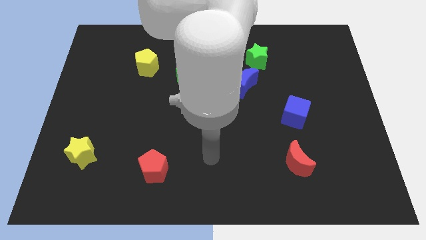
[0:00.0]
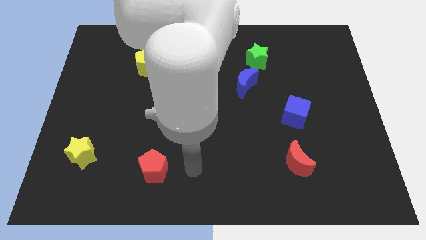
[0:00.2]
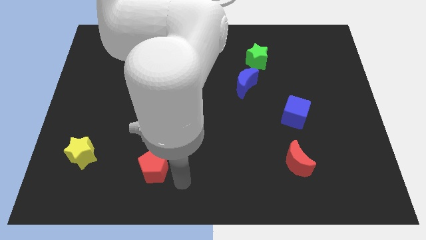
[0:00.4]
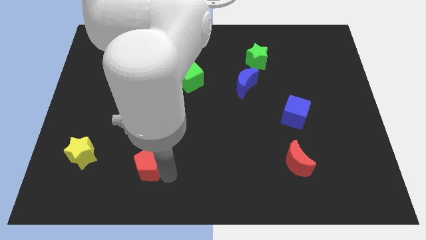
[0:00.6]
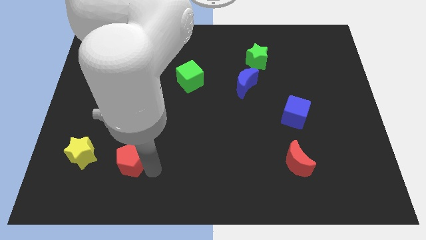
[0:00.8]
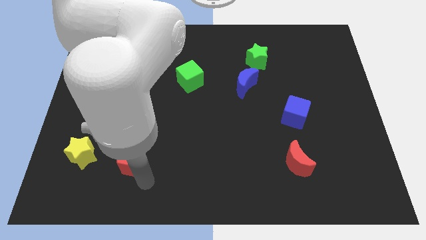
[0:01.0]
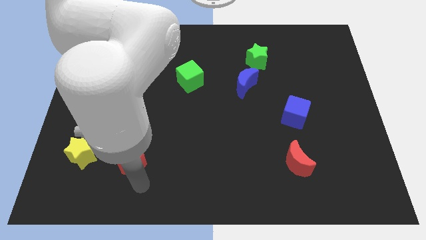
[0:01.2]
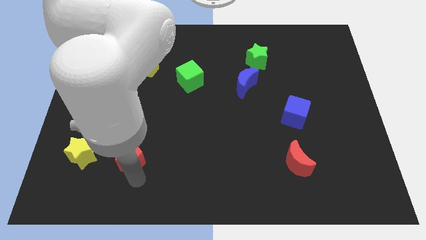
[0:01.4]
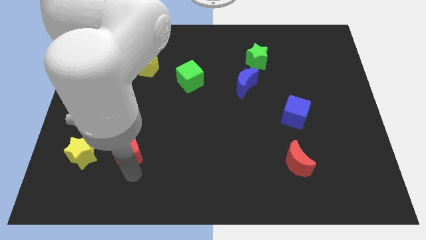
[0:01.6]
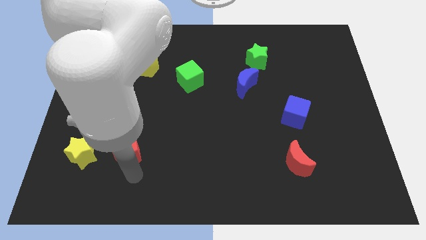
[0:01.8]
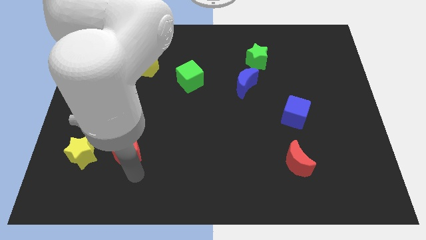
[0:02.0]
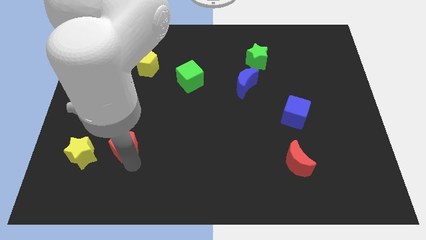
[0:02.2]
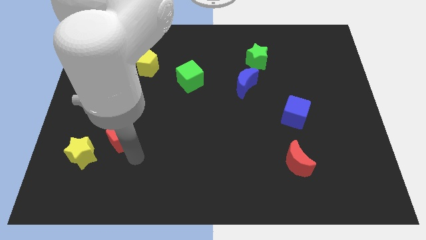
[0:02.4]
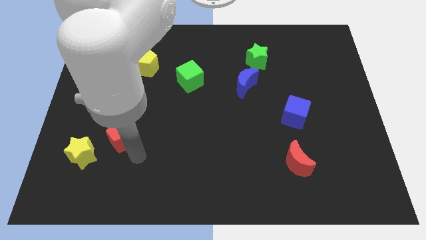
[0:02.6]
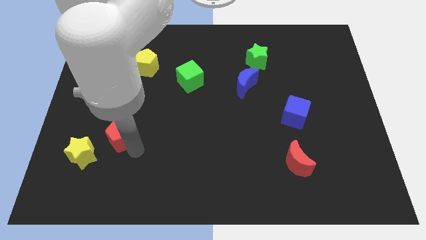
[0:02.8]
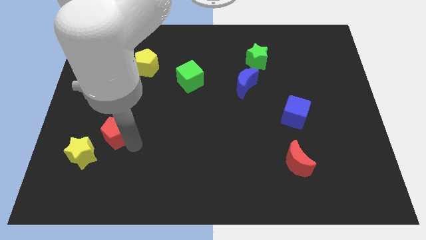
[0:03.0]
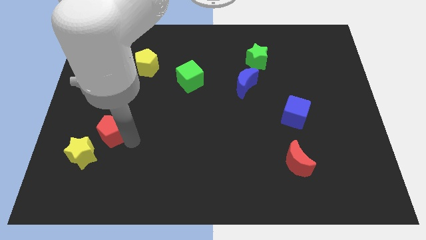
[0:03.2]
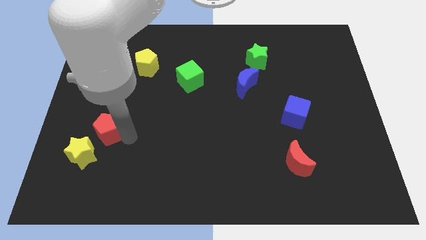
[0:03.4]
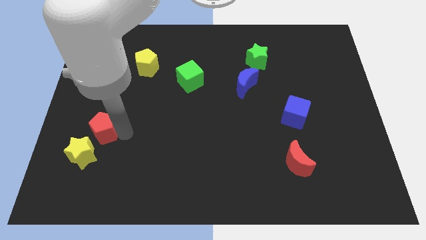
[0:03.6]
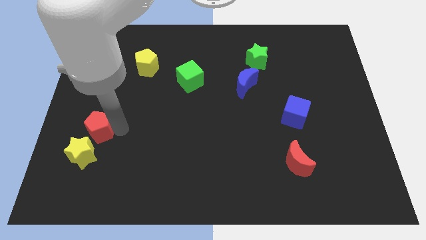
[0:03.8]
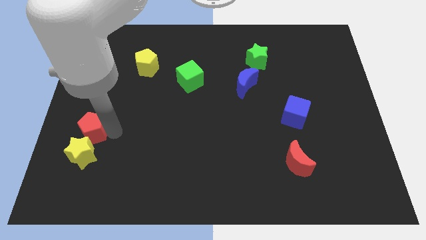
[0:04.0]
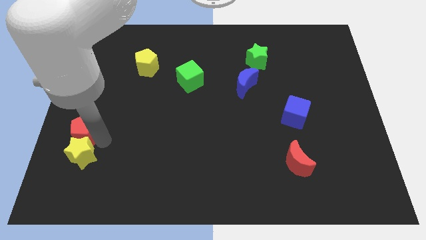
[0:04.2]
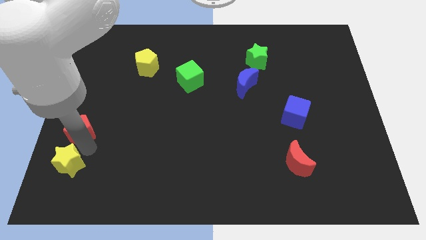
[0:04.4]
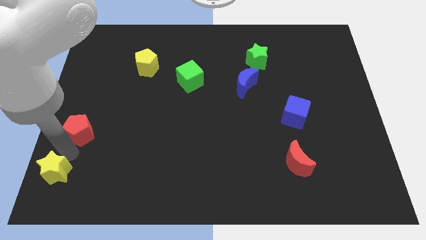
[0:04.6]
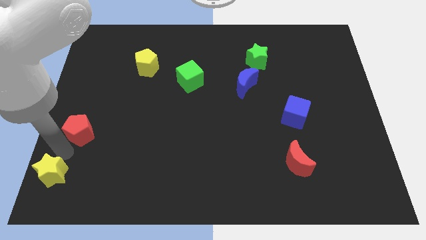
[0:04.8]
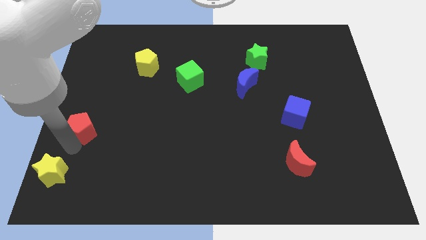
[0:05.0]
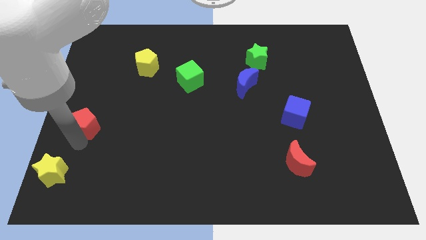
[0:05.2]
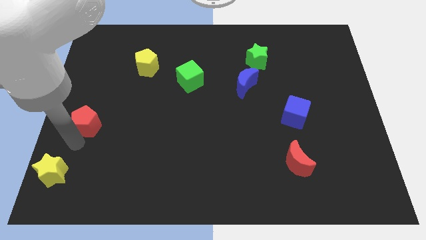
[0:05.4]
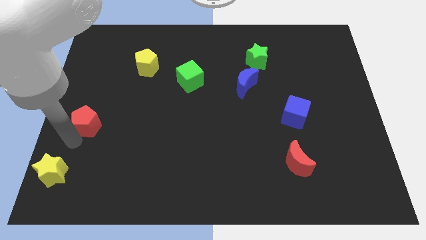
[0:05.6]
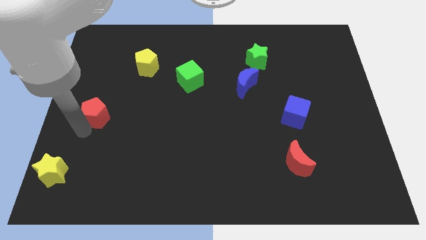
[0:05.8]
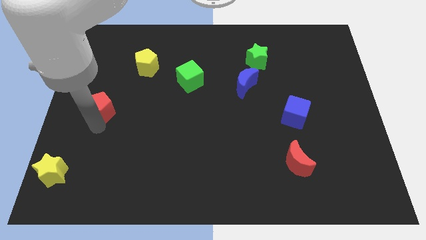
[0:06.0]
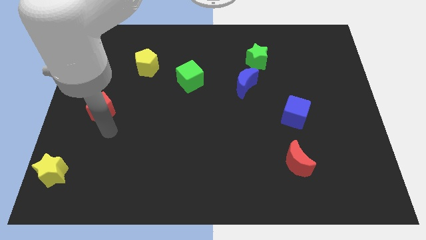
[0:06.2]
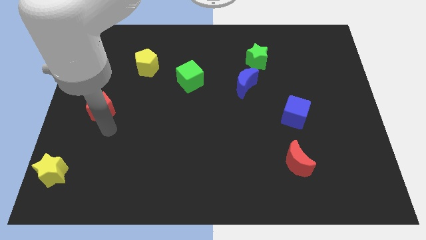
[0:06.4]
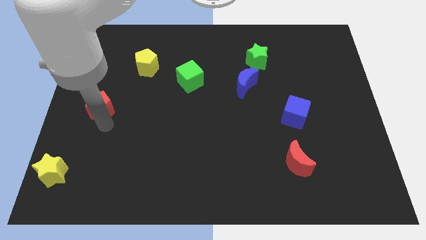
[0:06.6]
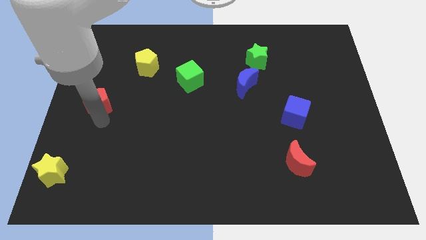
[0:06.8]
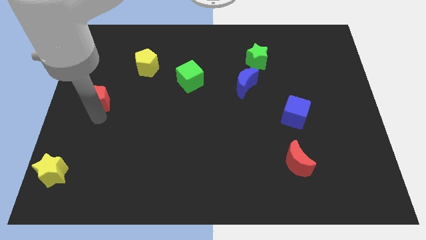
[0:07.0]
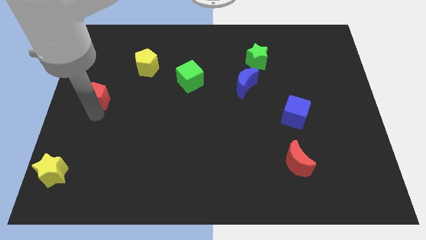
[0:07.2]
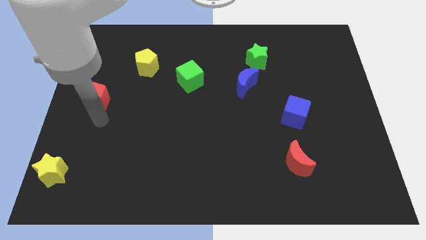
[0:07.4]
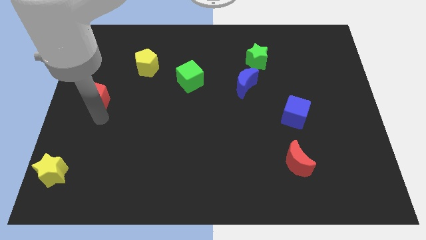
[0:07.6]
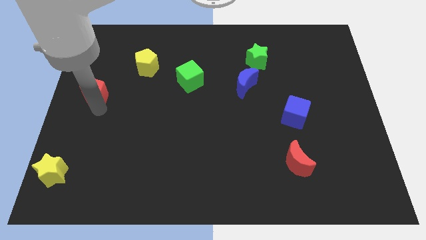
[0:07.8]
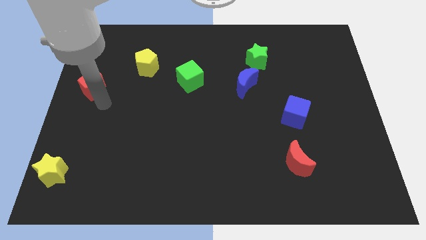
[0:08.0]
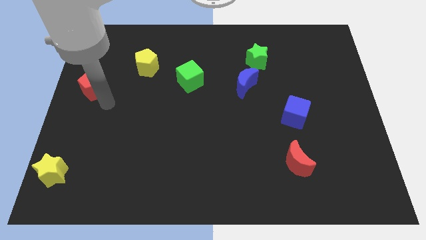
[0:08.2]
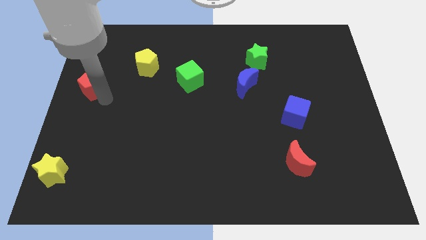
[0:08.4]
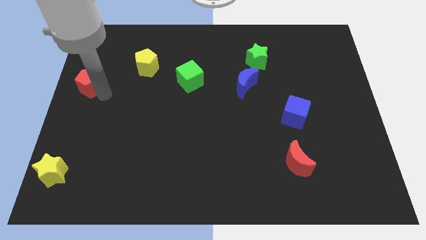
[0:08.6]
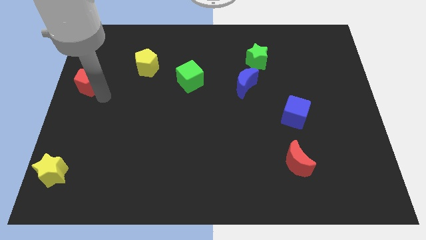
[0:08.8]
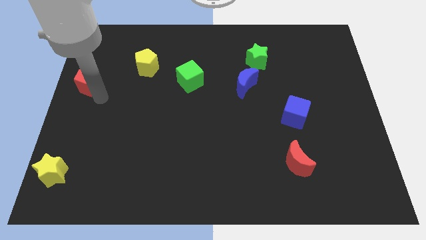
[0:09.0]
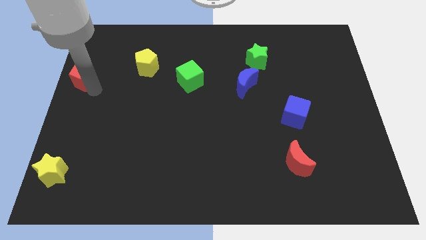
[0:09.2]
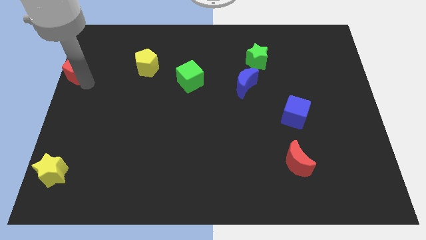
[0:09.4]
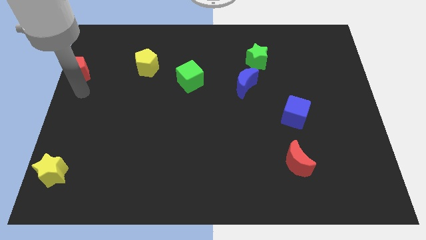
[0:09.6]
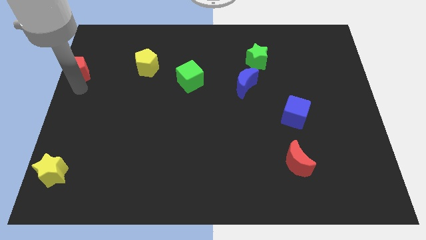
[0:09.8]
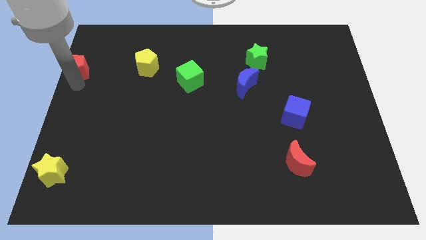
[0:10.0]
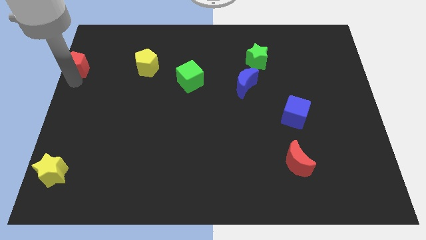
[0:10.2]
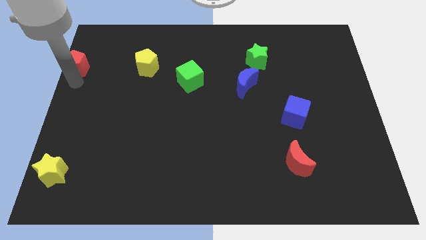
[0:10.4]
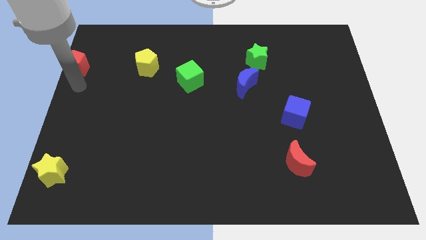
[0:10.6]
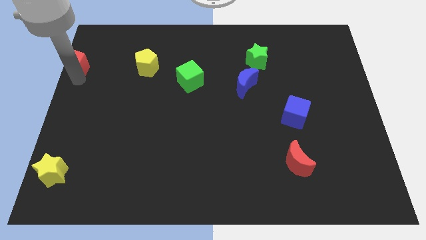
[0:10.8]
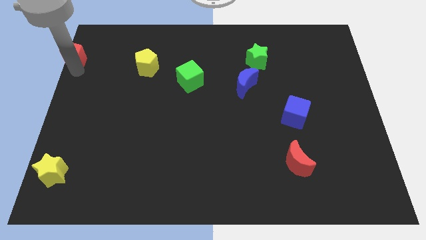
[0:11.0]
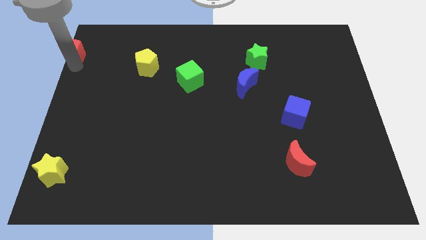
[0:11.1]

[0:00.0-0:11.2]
slide the red pentagon to the top left of the board

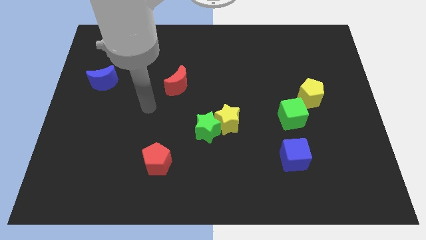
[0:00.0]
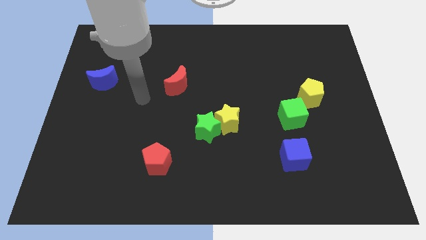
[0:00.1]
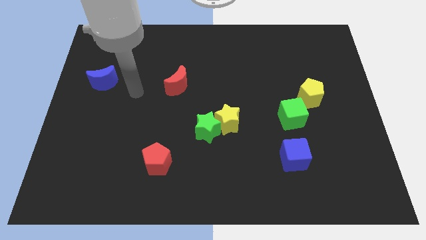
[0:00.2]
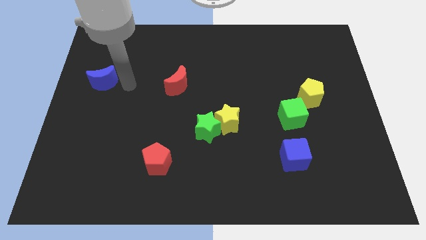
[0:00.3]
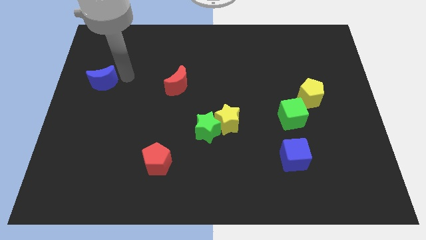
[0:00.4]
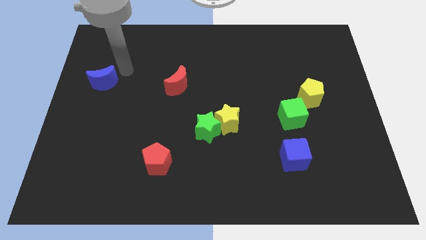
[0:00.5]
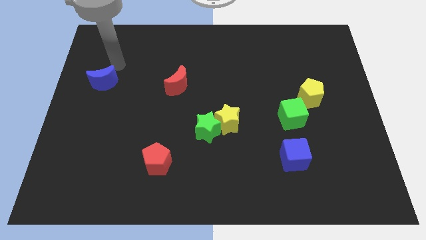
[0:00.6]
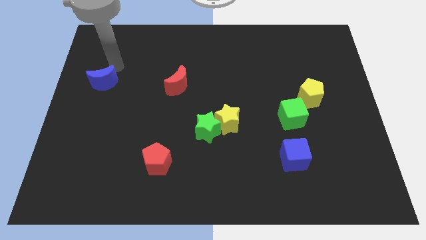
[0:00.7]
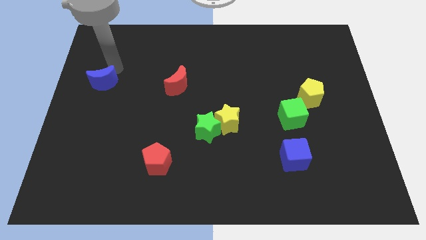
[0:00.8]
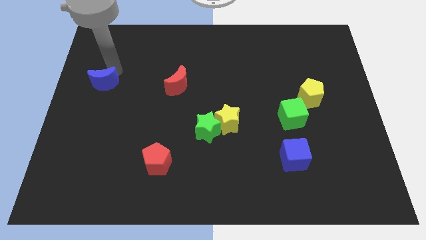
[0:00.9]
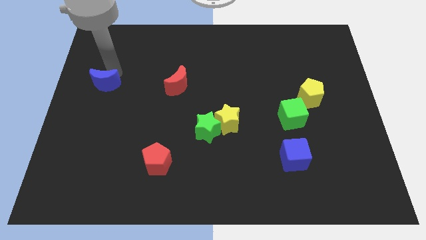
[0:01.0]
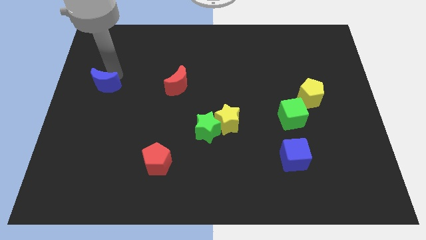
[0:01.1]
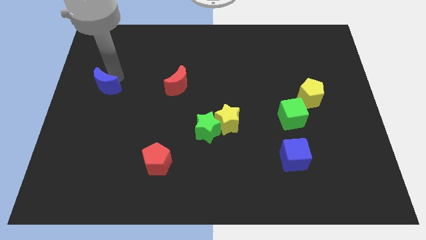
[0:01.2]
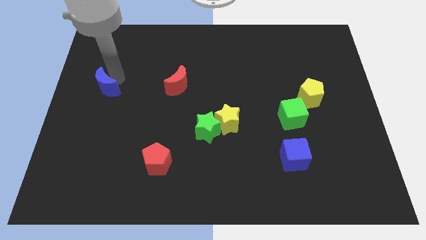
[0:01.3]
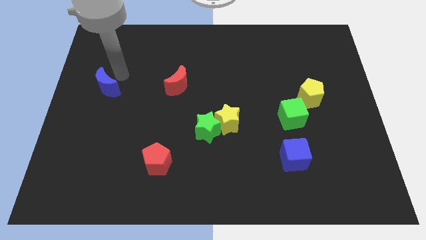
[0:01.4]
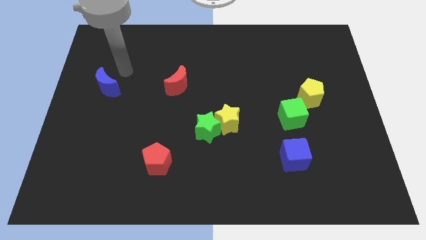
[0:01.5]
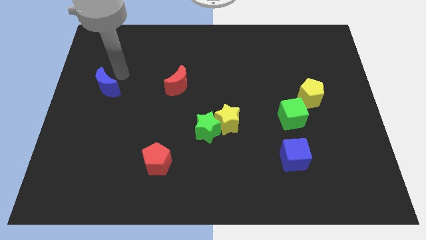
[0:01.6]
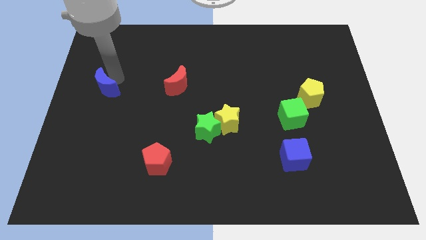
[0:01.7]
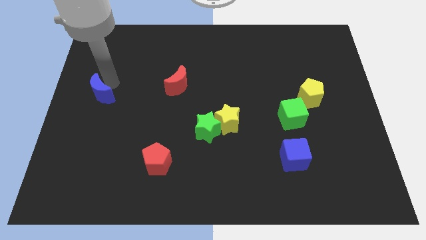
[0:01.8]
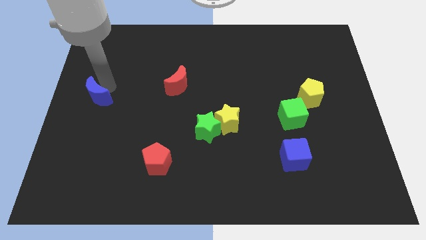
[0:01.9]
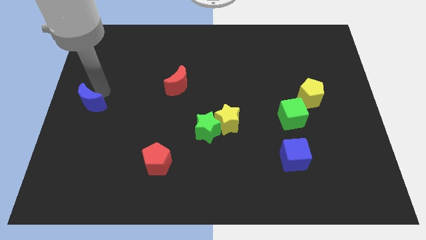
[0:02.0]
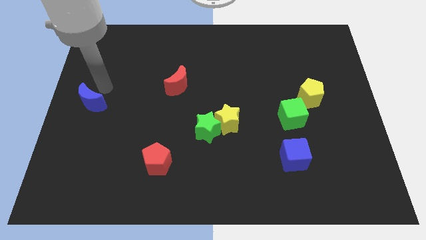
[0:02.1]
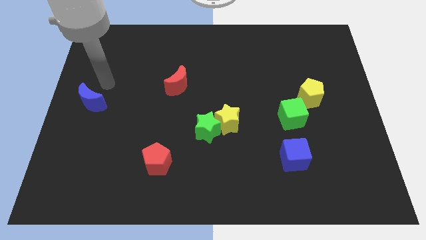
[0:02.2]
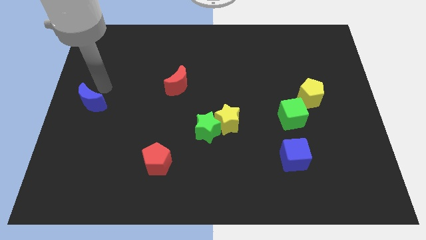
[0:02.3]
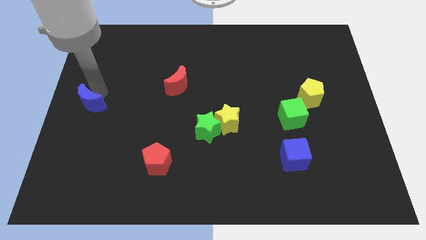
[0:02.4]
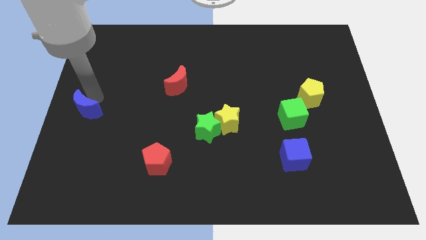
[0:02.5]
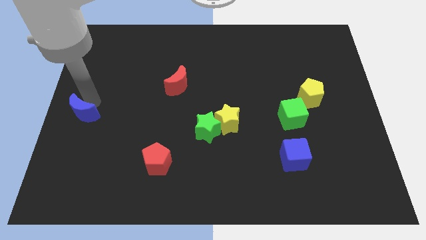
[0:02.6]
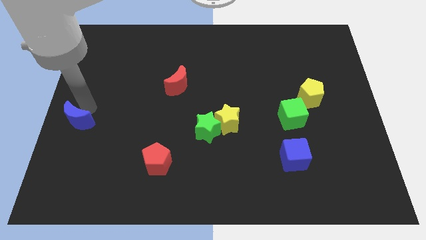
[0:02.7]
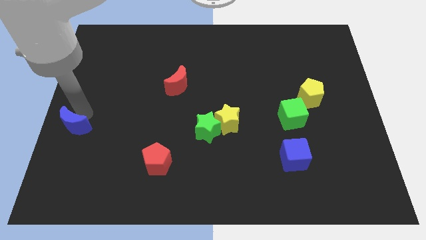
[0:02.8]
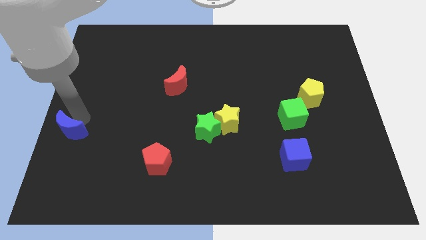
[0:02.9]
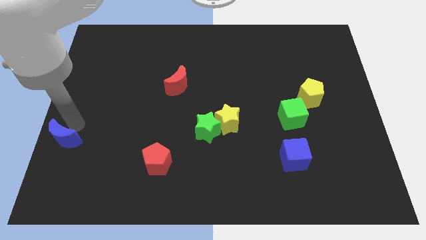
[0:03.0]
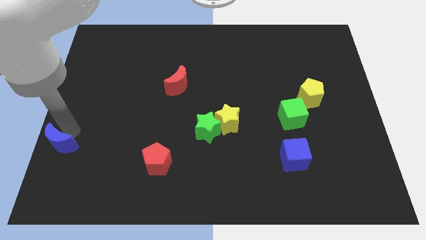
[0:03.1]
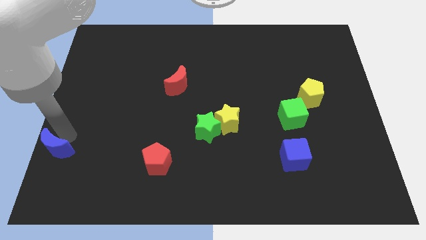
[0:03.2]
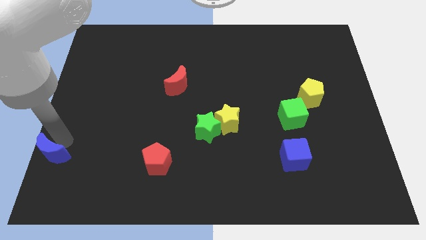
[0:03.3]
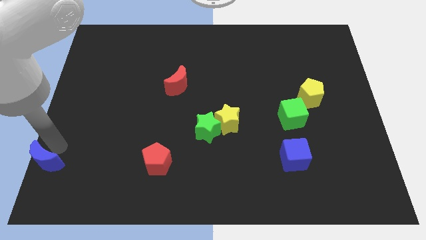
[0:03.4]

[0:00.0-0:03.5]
push the blue moon to the bottom left of the board
